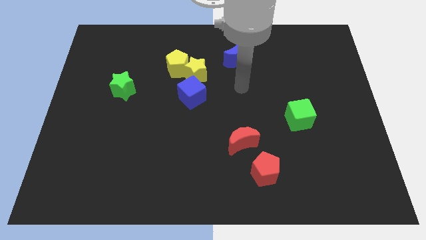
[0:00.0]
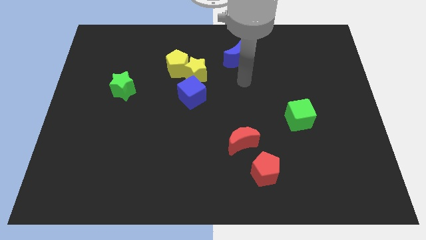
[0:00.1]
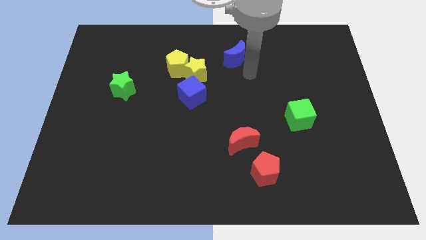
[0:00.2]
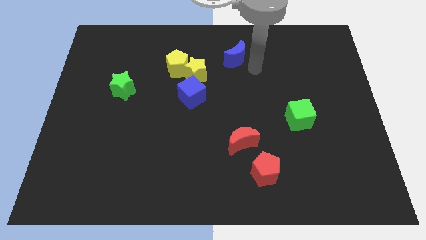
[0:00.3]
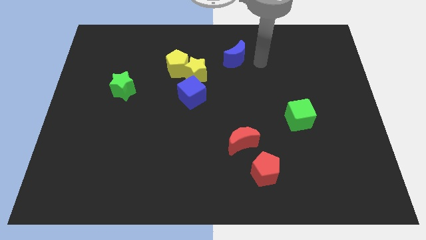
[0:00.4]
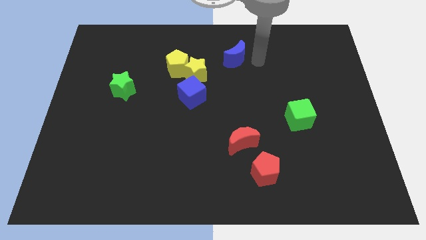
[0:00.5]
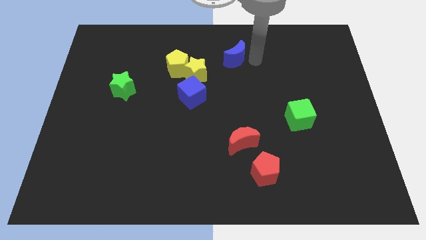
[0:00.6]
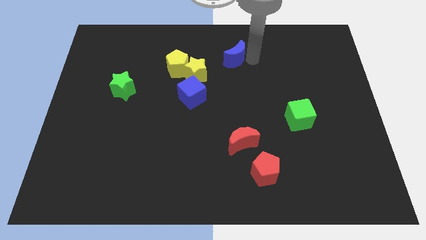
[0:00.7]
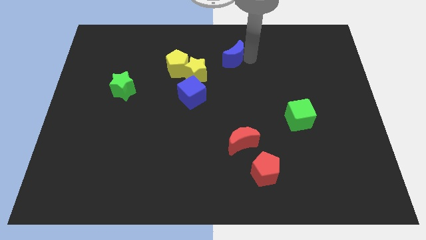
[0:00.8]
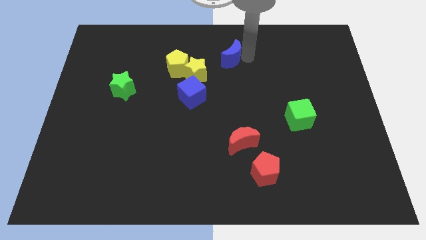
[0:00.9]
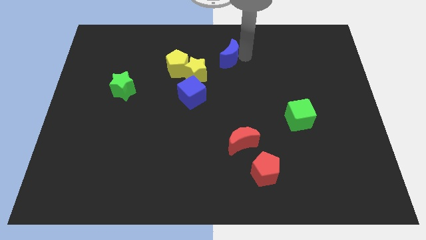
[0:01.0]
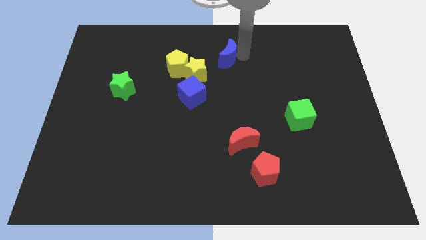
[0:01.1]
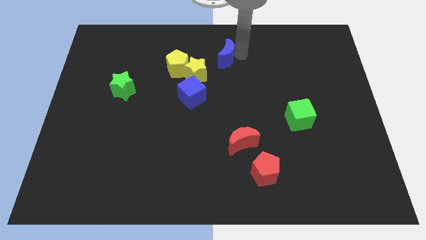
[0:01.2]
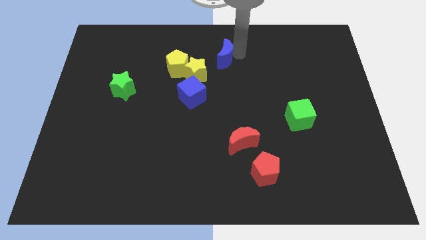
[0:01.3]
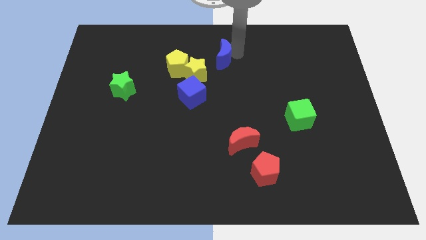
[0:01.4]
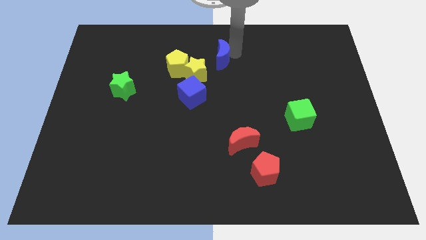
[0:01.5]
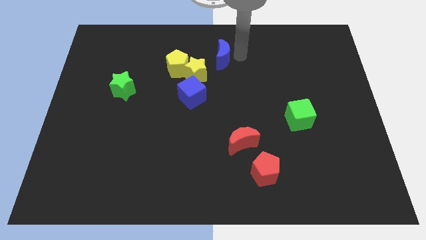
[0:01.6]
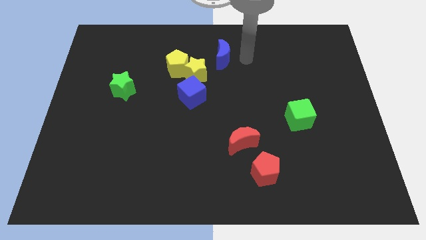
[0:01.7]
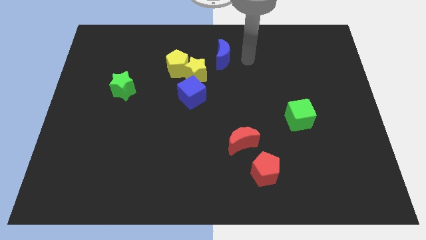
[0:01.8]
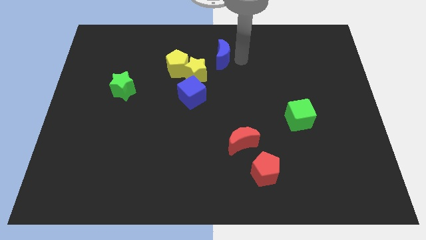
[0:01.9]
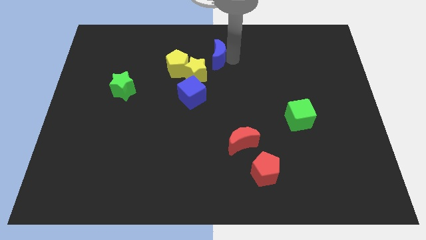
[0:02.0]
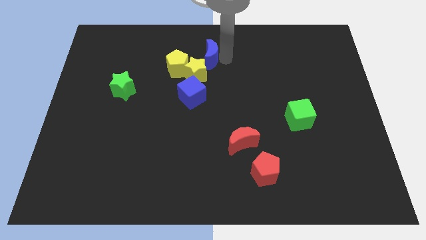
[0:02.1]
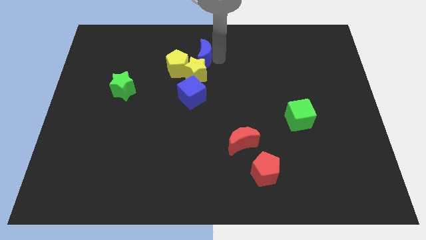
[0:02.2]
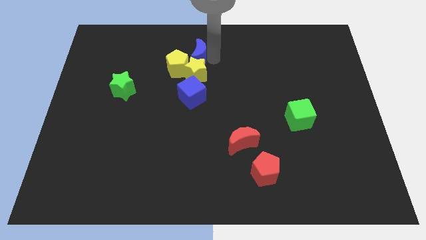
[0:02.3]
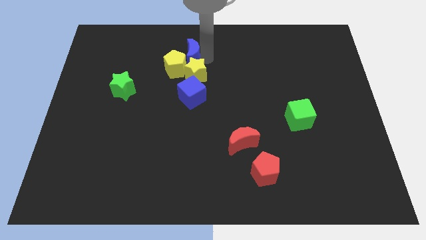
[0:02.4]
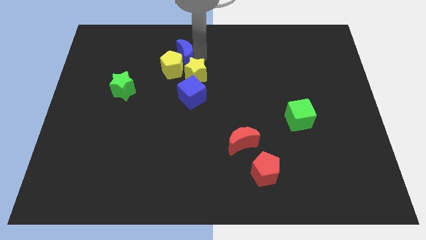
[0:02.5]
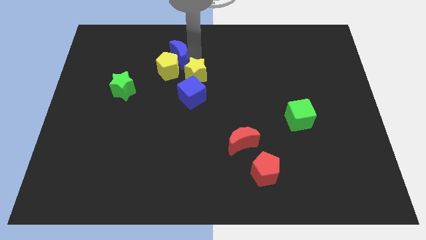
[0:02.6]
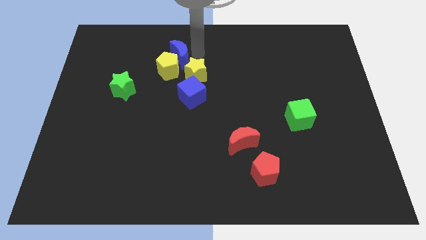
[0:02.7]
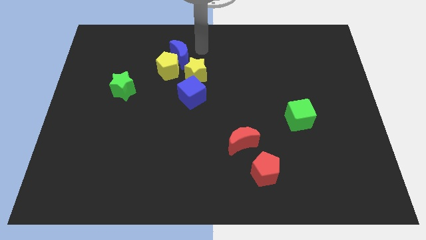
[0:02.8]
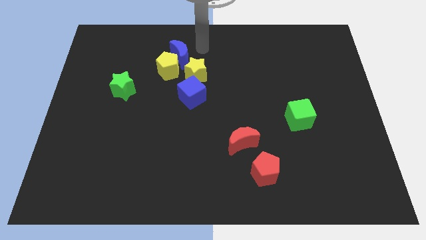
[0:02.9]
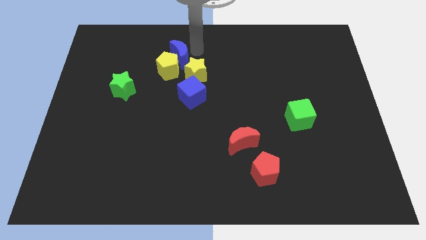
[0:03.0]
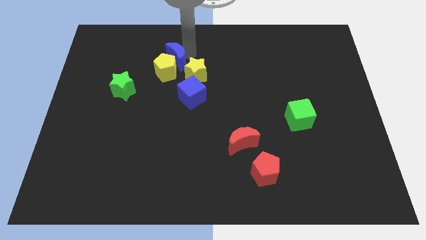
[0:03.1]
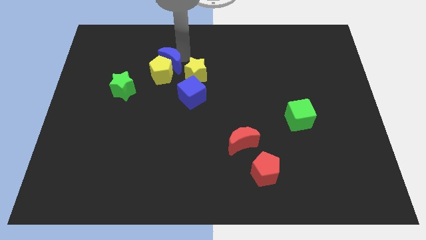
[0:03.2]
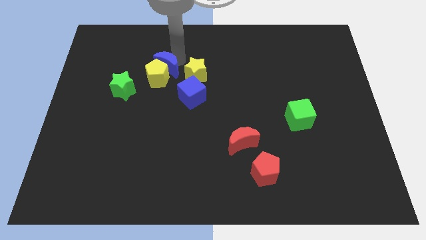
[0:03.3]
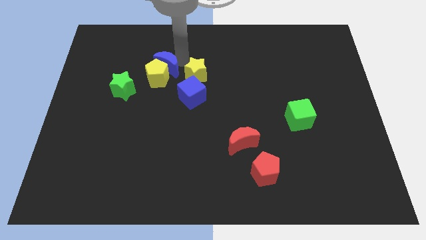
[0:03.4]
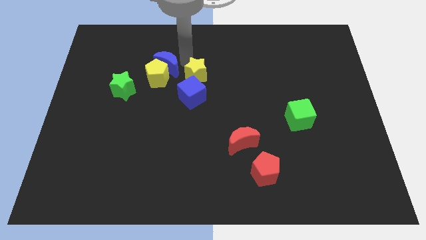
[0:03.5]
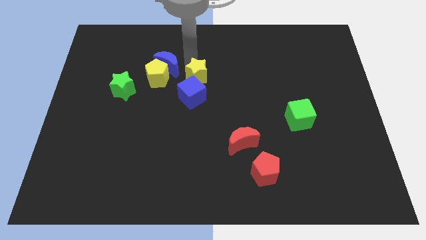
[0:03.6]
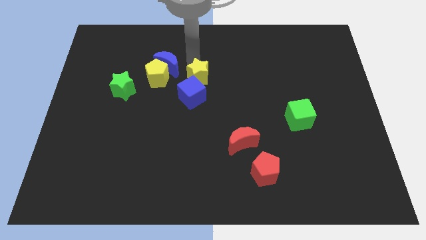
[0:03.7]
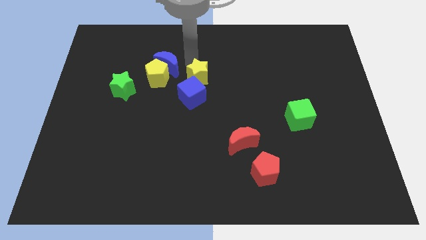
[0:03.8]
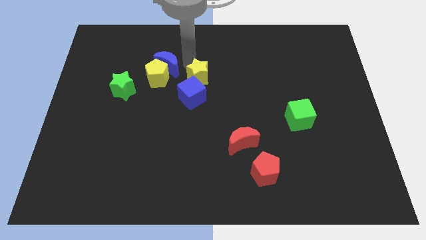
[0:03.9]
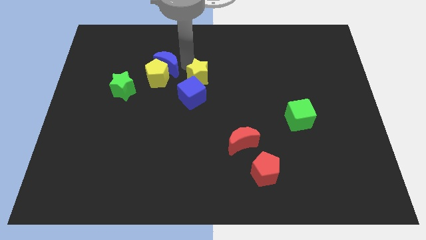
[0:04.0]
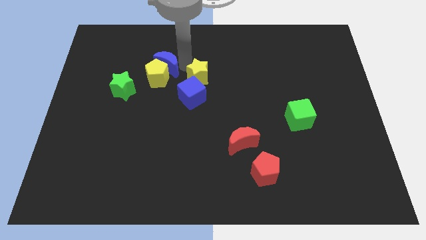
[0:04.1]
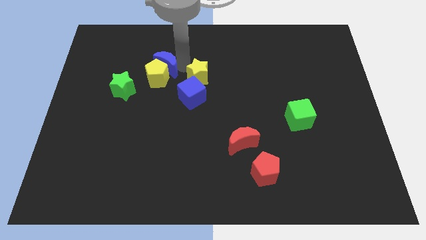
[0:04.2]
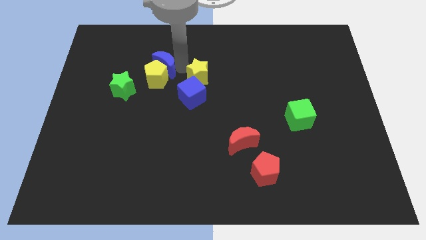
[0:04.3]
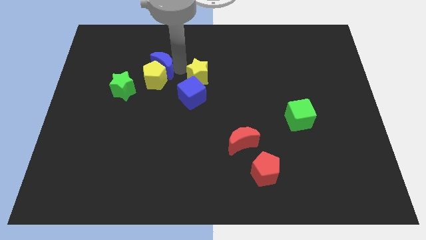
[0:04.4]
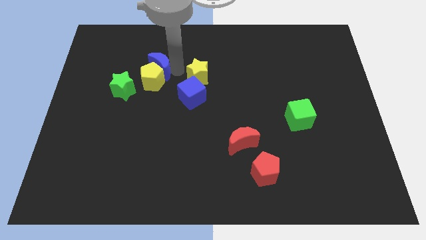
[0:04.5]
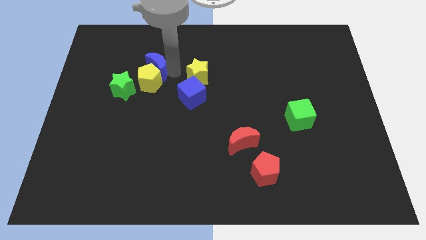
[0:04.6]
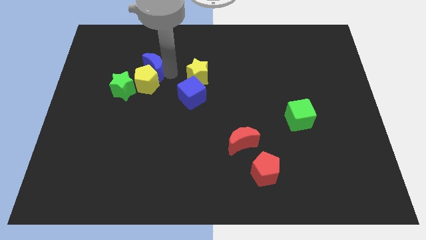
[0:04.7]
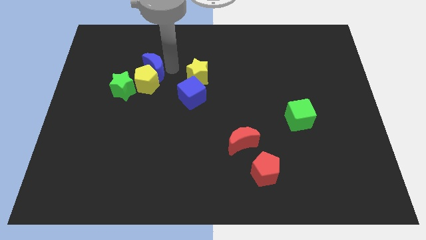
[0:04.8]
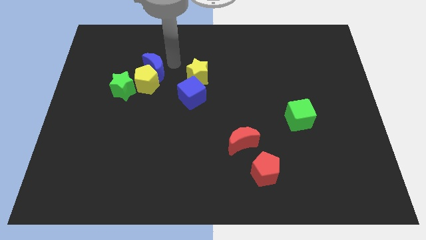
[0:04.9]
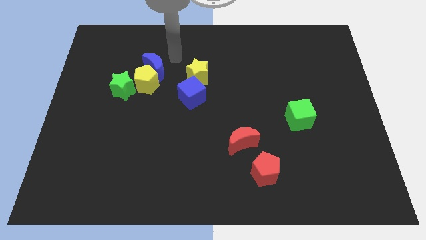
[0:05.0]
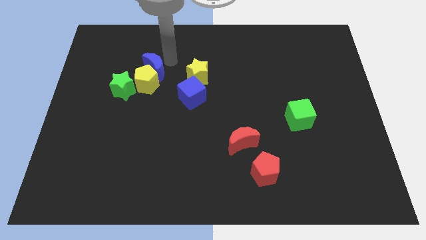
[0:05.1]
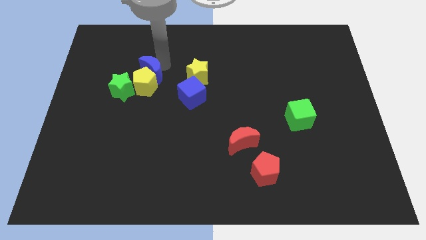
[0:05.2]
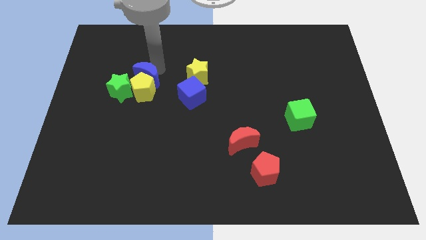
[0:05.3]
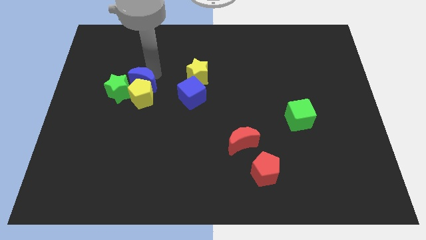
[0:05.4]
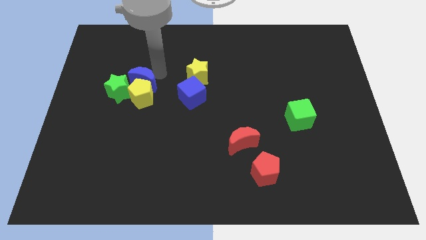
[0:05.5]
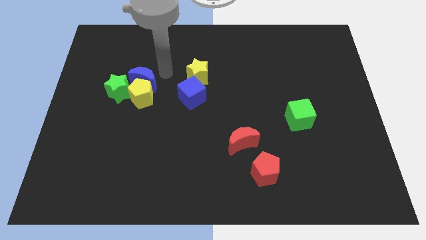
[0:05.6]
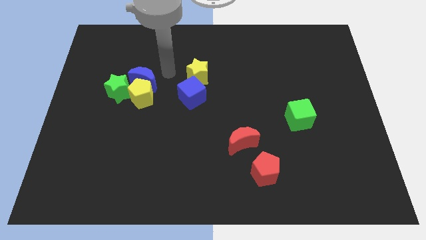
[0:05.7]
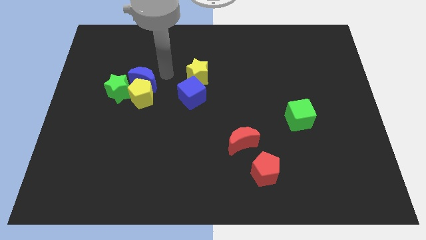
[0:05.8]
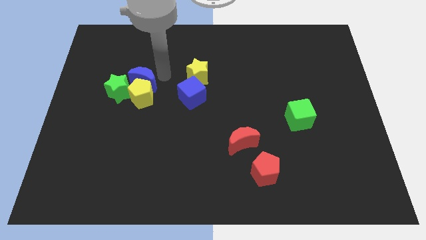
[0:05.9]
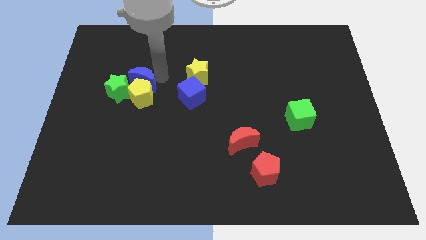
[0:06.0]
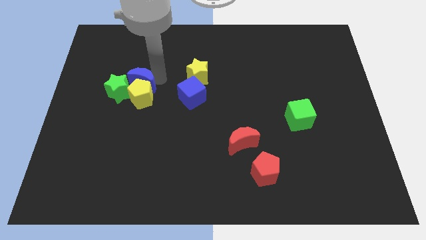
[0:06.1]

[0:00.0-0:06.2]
put the blue moon next to the green star

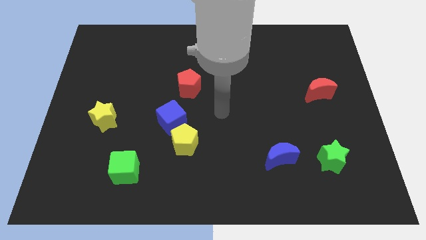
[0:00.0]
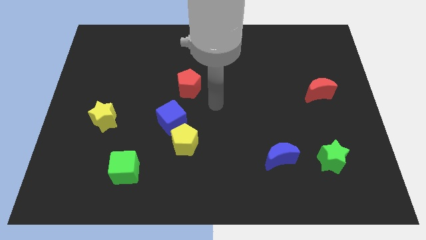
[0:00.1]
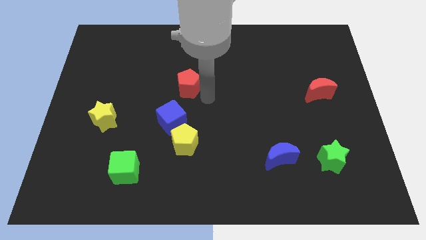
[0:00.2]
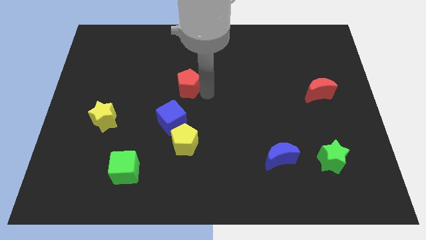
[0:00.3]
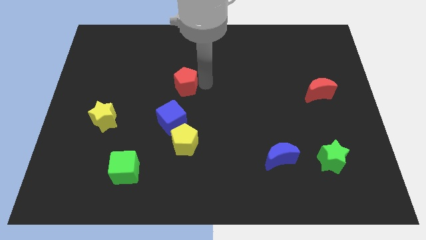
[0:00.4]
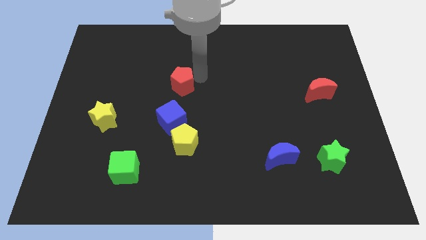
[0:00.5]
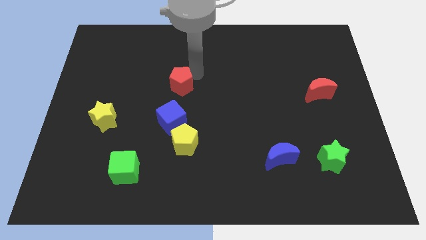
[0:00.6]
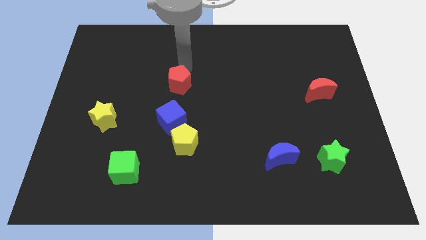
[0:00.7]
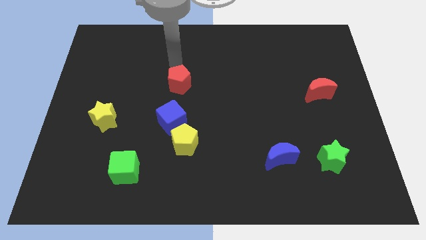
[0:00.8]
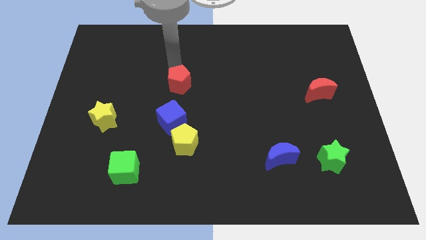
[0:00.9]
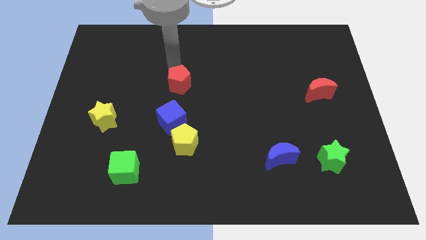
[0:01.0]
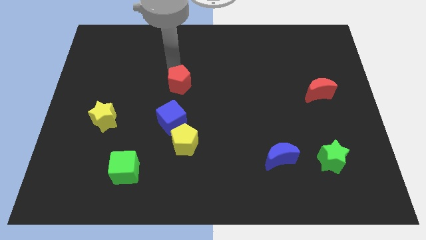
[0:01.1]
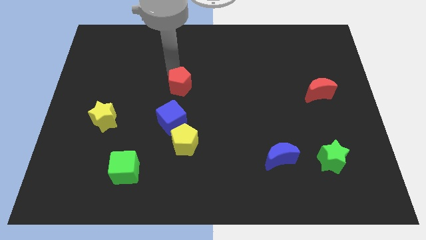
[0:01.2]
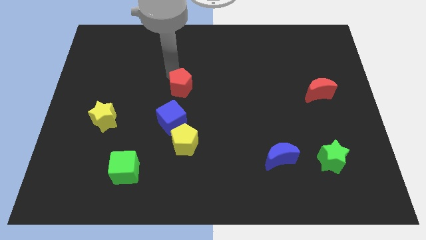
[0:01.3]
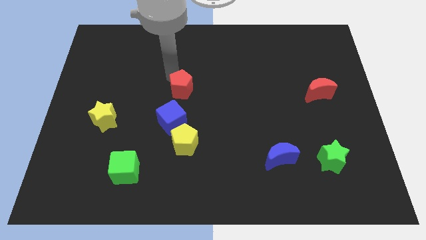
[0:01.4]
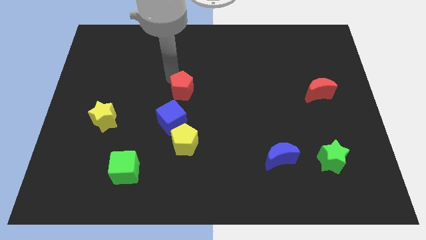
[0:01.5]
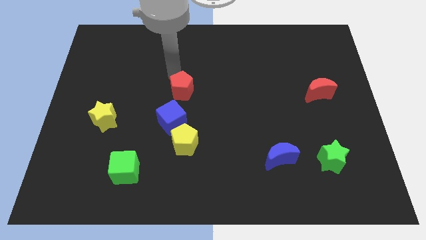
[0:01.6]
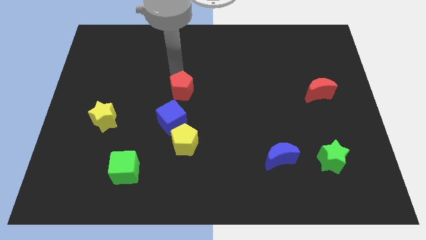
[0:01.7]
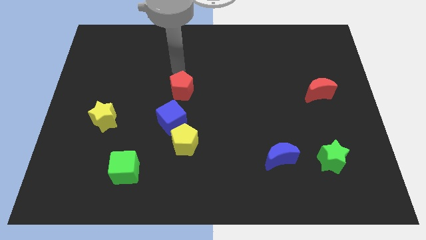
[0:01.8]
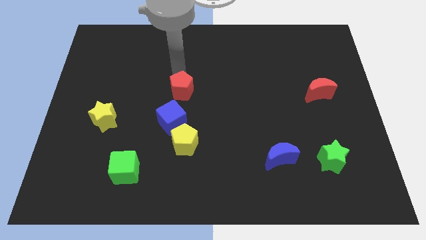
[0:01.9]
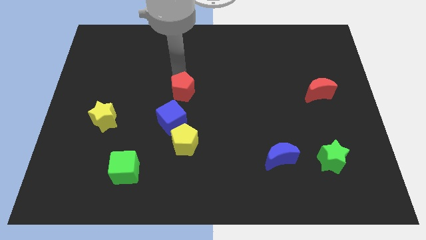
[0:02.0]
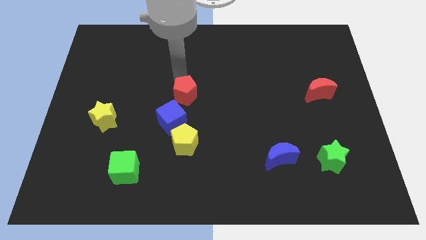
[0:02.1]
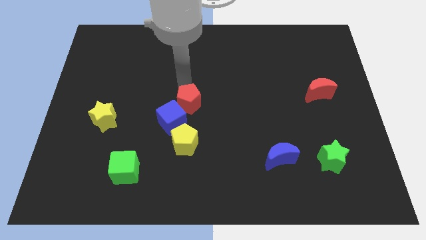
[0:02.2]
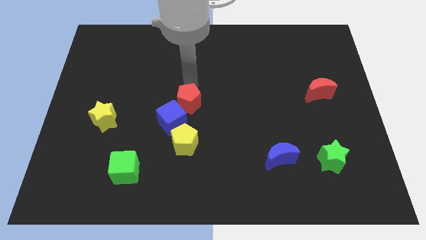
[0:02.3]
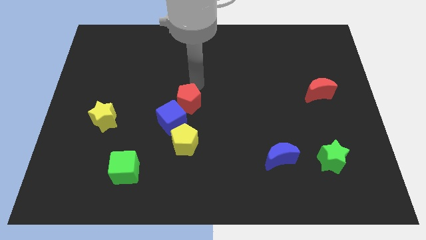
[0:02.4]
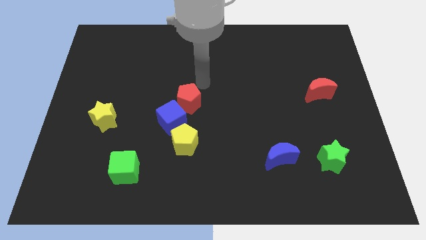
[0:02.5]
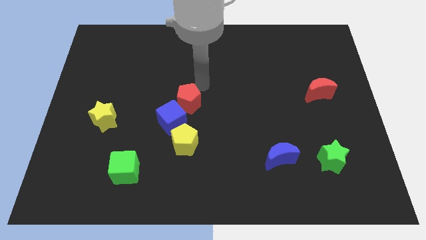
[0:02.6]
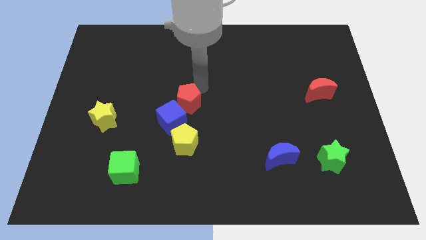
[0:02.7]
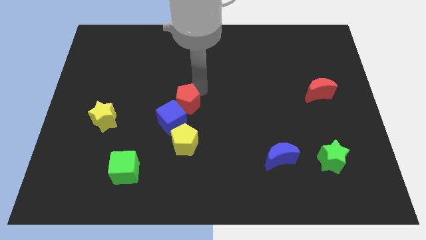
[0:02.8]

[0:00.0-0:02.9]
slide the red pentagon close to the blue cube
